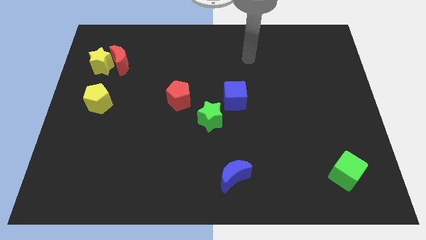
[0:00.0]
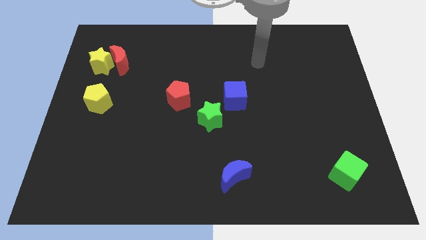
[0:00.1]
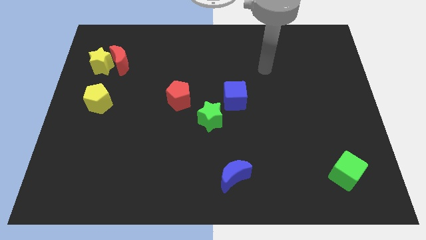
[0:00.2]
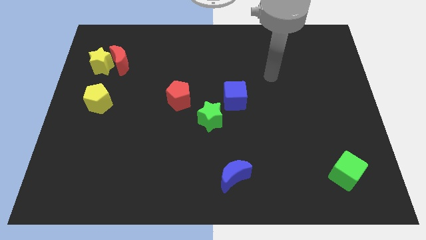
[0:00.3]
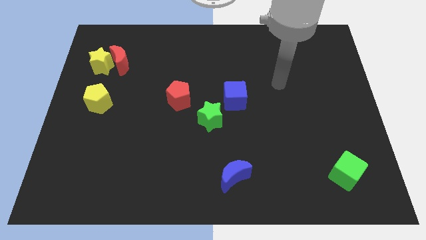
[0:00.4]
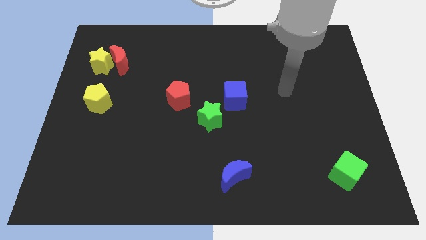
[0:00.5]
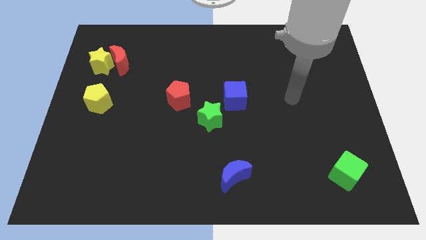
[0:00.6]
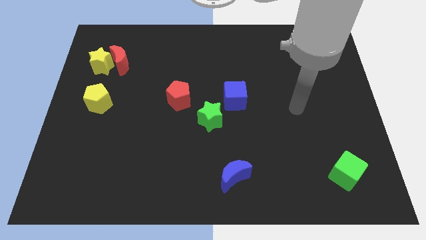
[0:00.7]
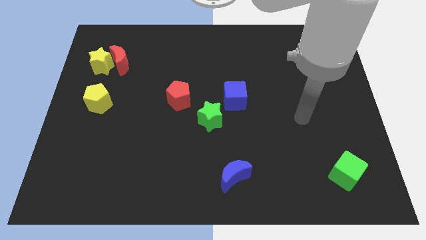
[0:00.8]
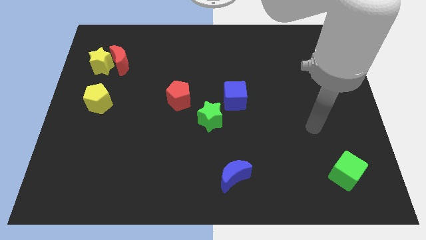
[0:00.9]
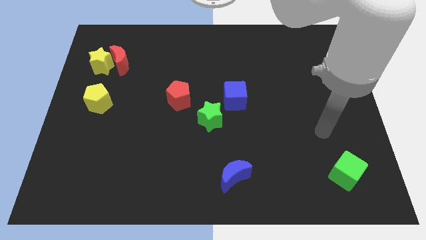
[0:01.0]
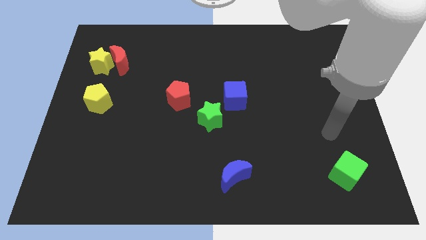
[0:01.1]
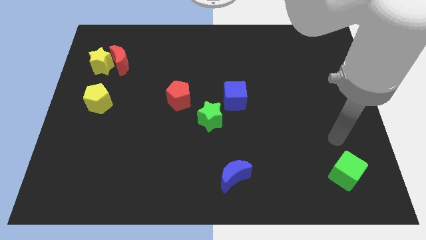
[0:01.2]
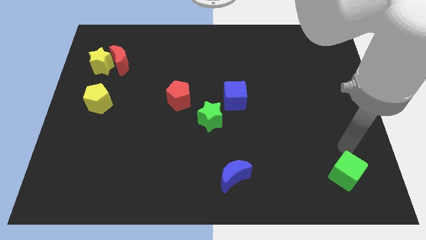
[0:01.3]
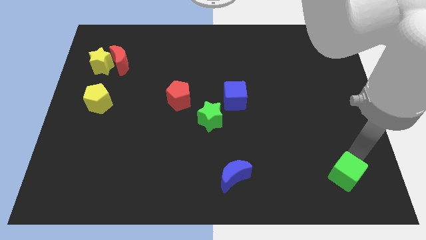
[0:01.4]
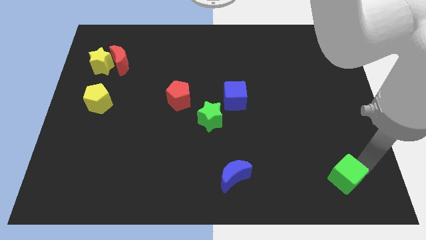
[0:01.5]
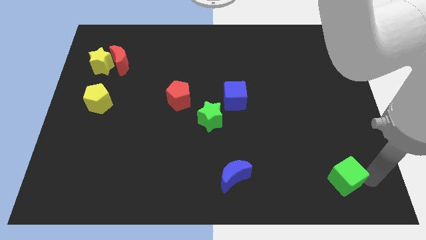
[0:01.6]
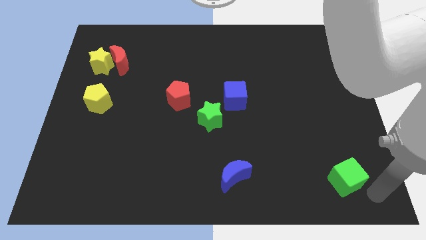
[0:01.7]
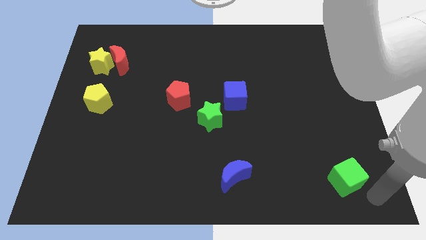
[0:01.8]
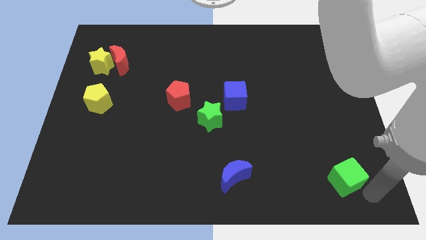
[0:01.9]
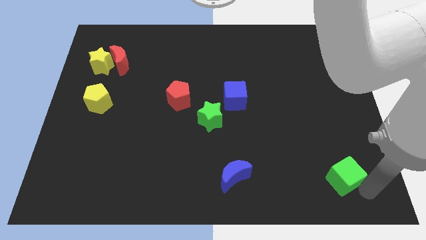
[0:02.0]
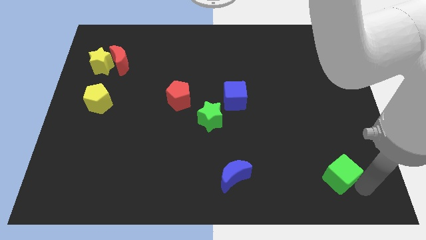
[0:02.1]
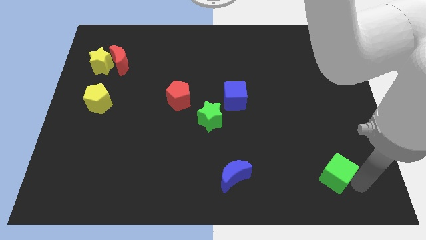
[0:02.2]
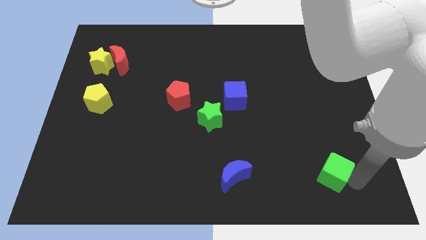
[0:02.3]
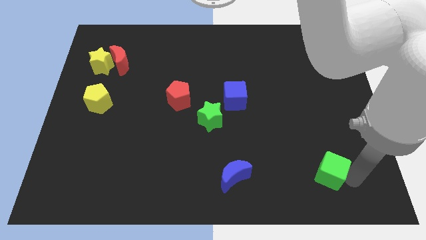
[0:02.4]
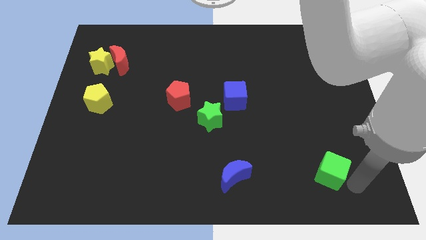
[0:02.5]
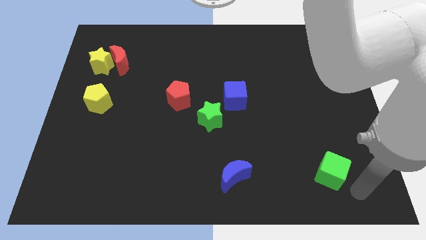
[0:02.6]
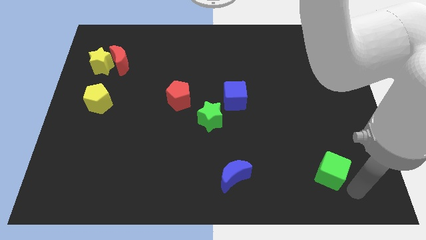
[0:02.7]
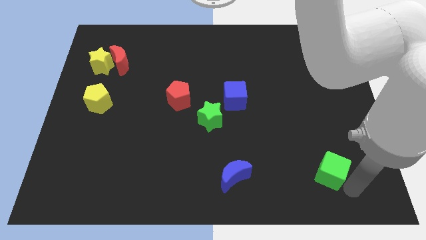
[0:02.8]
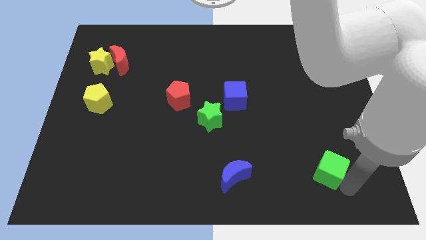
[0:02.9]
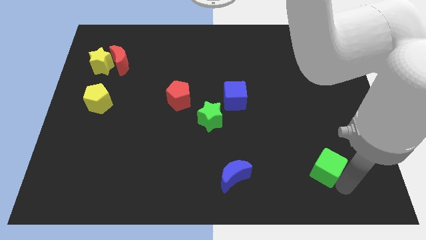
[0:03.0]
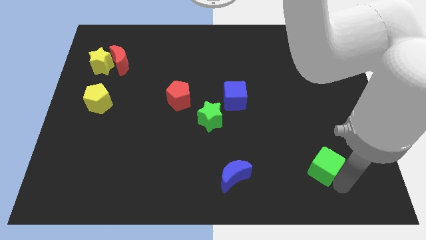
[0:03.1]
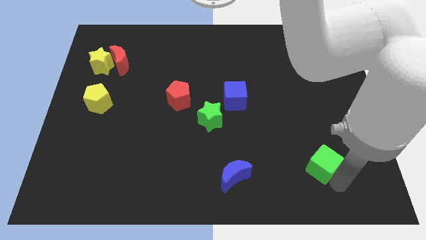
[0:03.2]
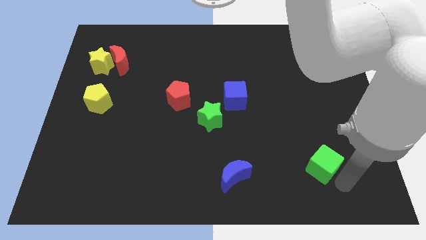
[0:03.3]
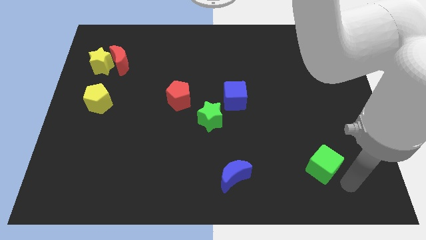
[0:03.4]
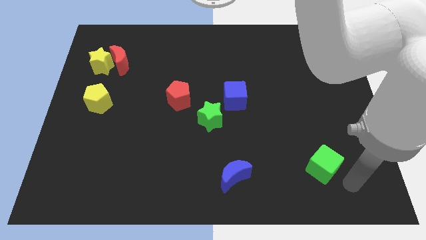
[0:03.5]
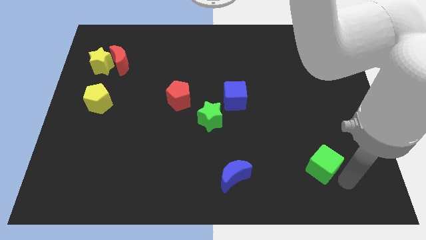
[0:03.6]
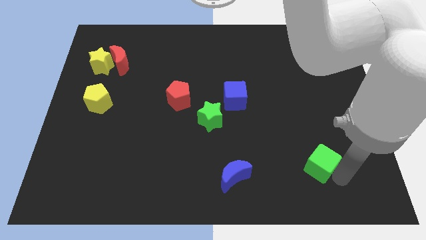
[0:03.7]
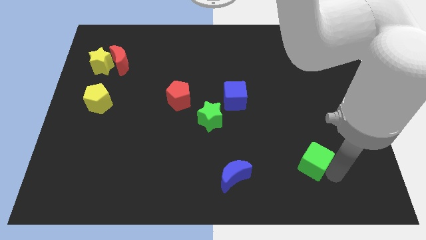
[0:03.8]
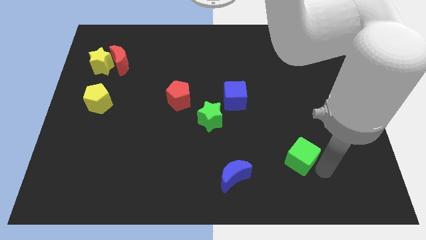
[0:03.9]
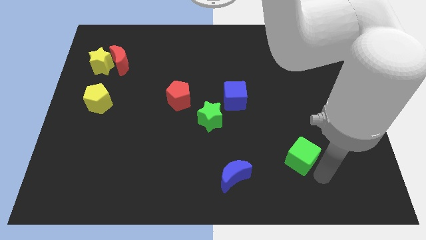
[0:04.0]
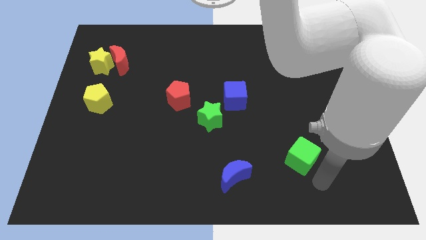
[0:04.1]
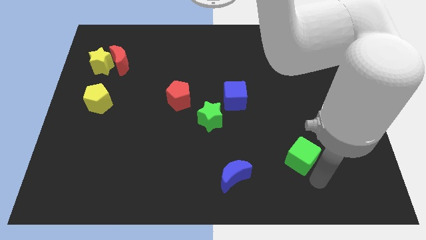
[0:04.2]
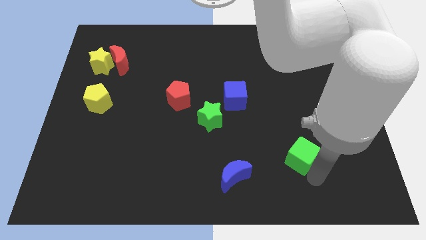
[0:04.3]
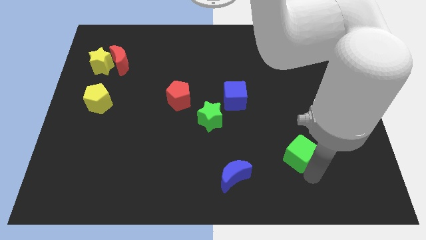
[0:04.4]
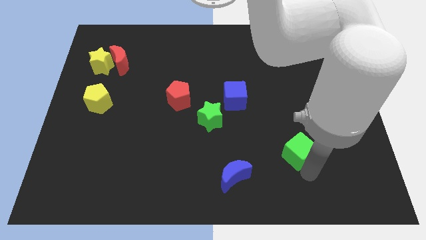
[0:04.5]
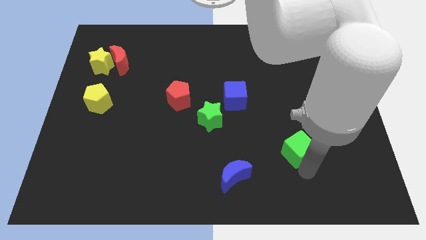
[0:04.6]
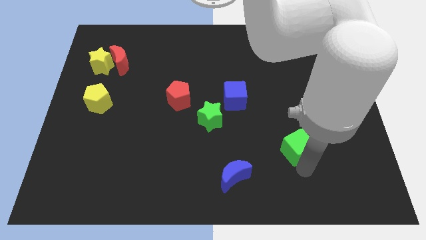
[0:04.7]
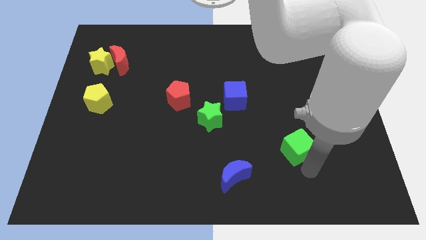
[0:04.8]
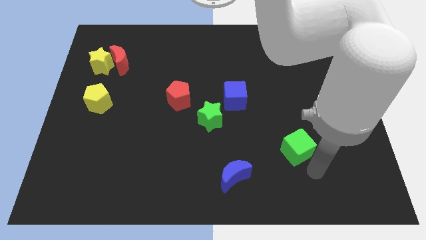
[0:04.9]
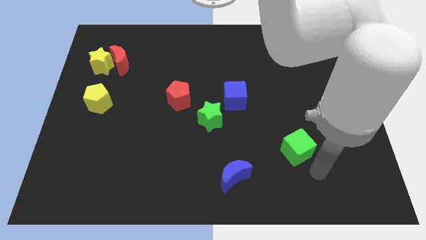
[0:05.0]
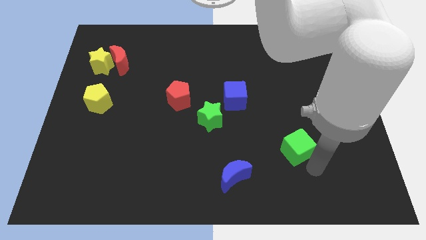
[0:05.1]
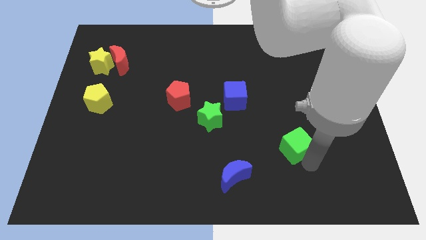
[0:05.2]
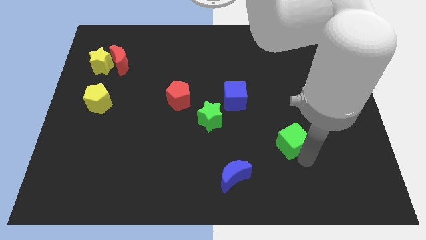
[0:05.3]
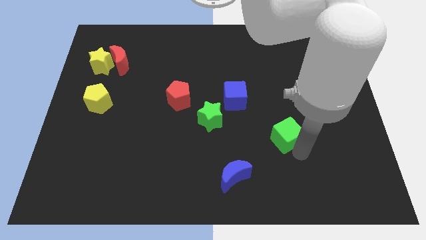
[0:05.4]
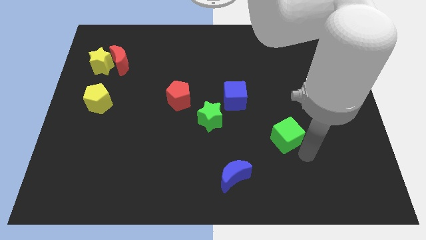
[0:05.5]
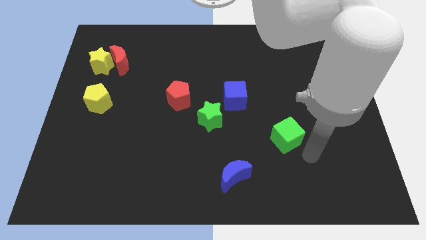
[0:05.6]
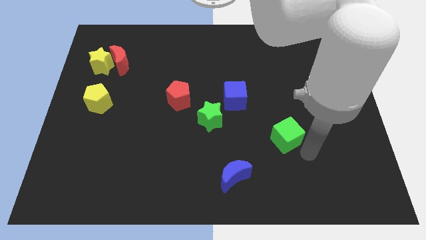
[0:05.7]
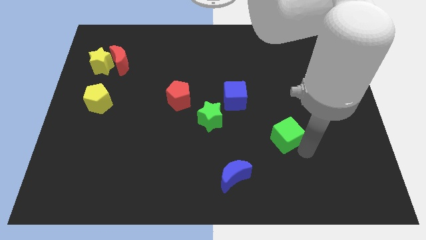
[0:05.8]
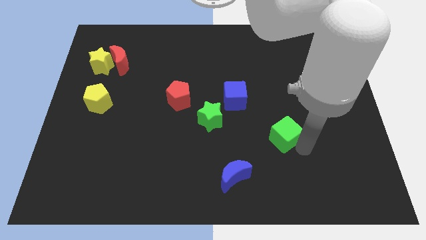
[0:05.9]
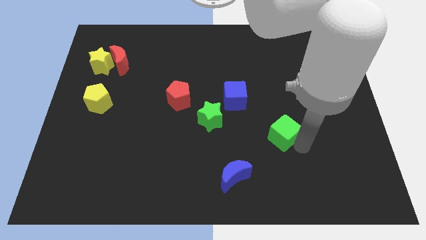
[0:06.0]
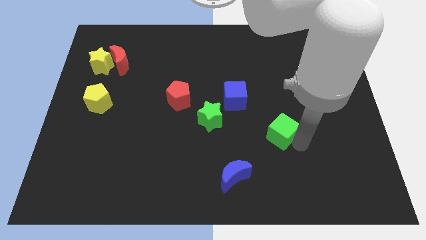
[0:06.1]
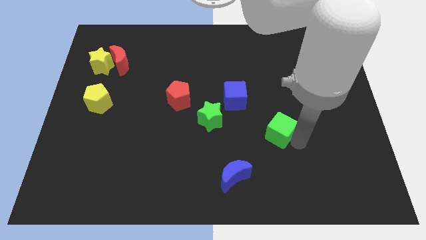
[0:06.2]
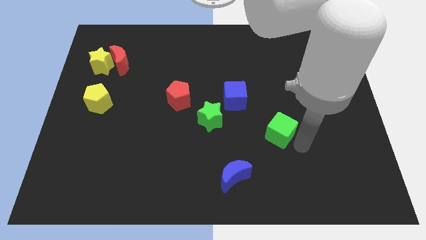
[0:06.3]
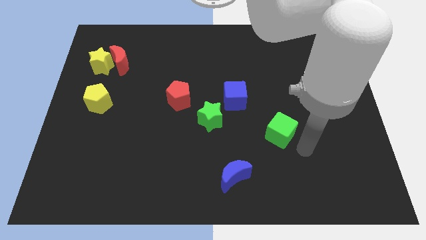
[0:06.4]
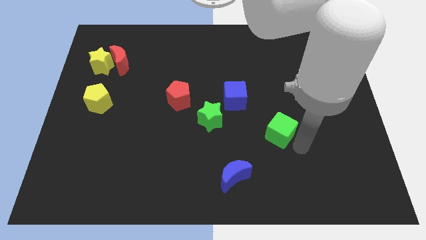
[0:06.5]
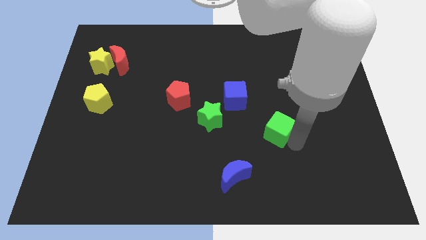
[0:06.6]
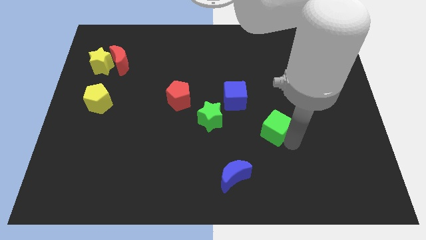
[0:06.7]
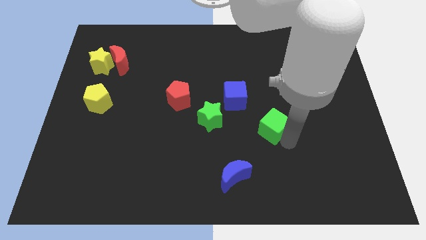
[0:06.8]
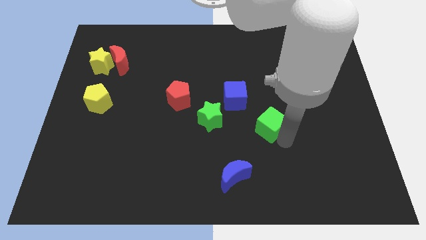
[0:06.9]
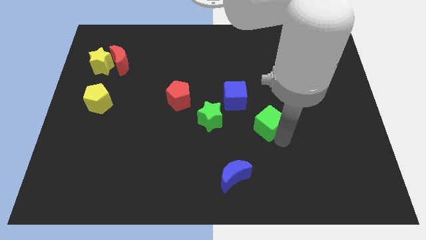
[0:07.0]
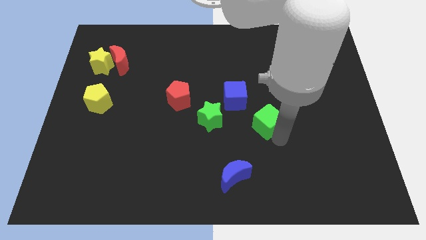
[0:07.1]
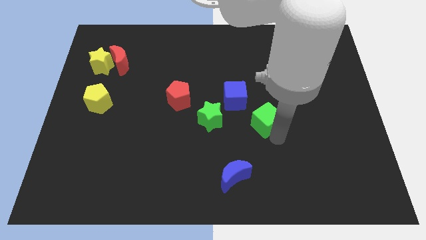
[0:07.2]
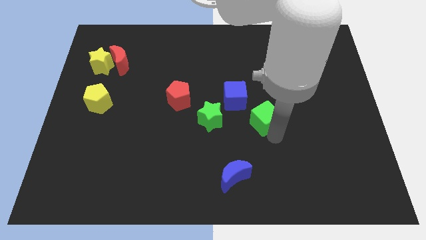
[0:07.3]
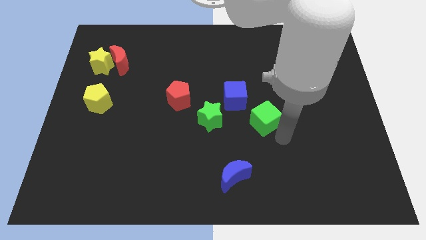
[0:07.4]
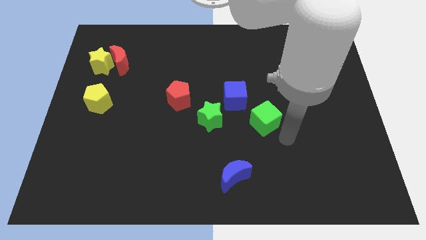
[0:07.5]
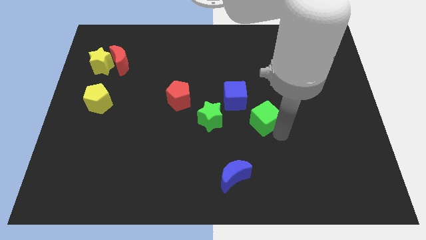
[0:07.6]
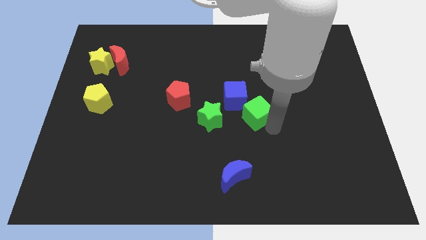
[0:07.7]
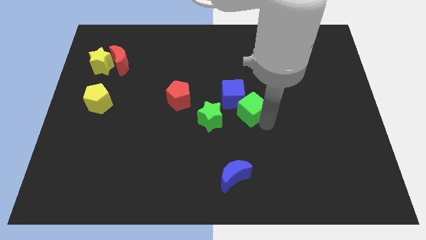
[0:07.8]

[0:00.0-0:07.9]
push the green cube next to the blue cube
